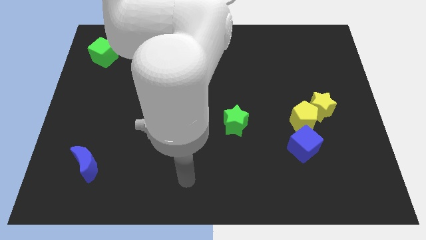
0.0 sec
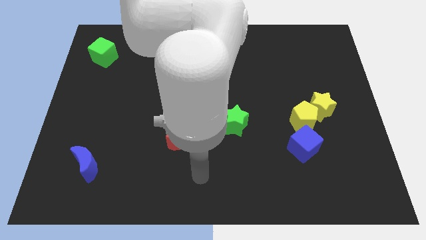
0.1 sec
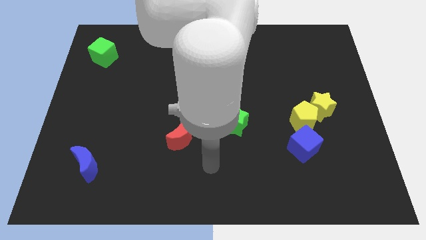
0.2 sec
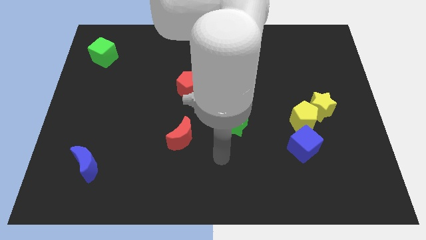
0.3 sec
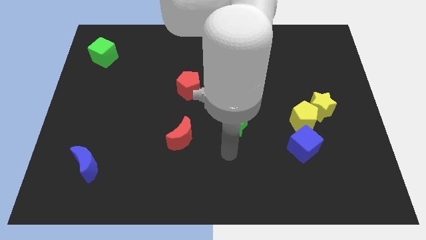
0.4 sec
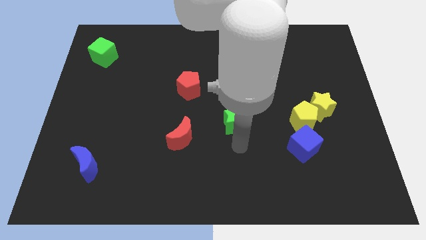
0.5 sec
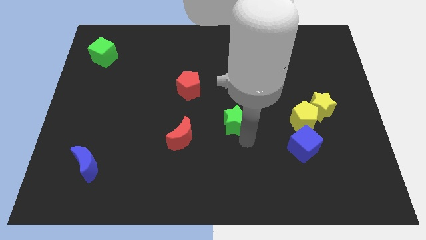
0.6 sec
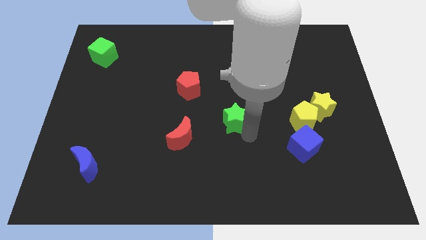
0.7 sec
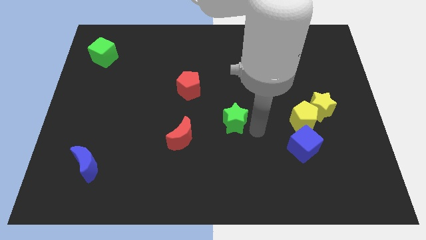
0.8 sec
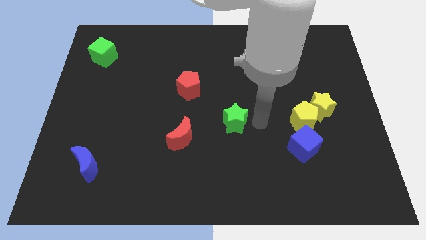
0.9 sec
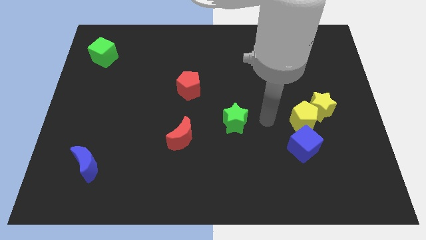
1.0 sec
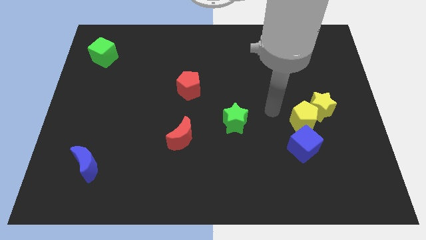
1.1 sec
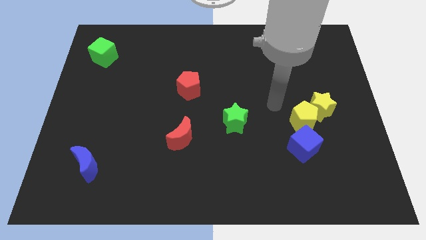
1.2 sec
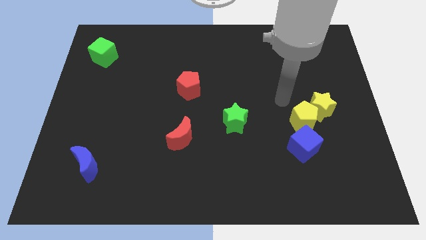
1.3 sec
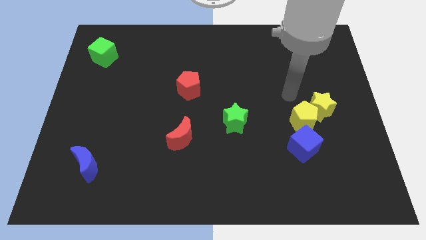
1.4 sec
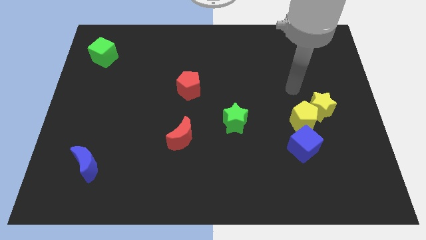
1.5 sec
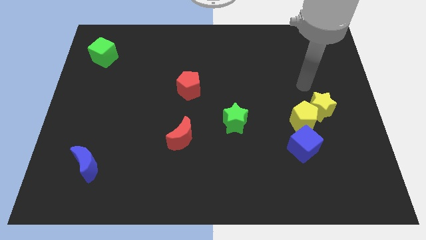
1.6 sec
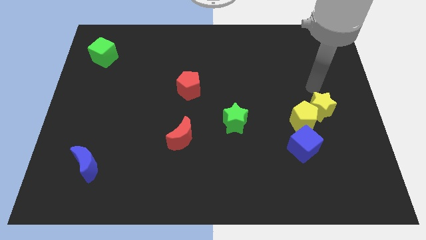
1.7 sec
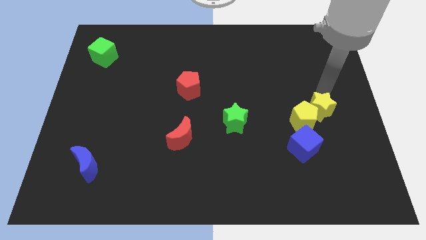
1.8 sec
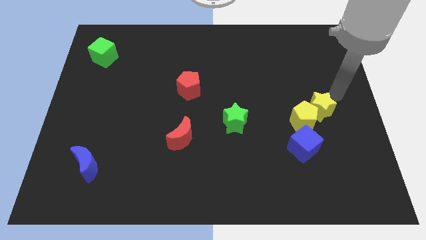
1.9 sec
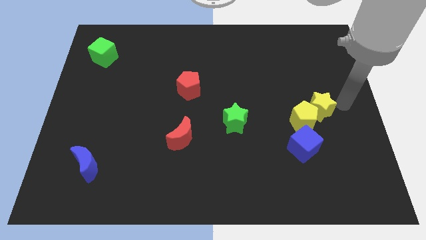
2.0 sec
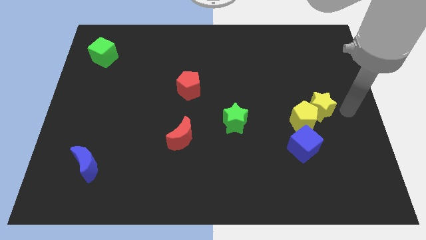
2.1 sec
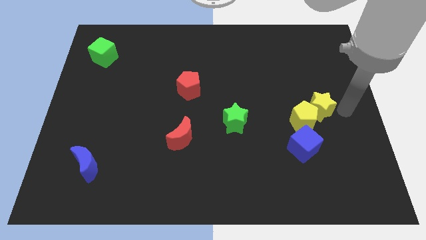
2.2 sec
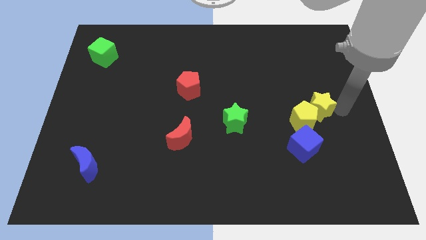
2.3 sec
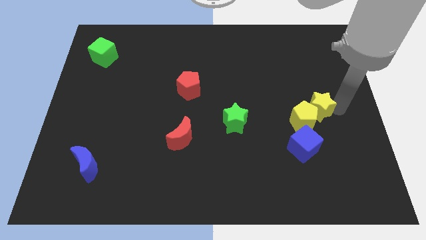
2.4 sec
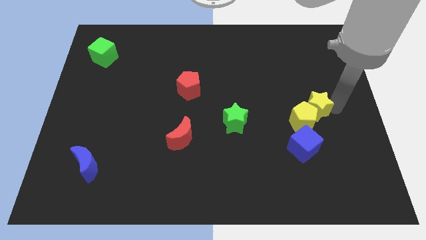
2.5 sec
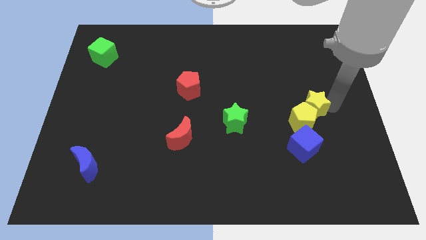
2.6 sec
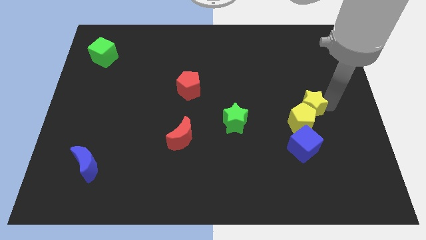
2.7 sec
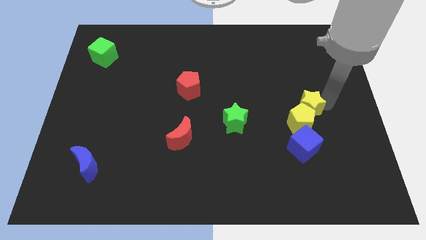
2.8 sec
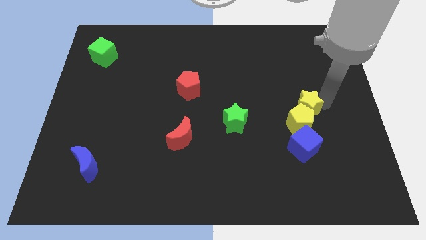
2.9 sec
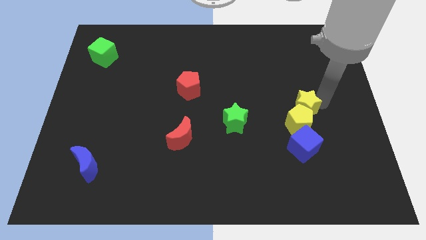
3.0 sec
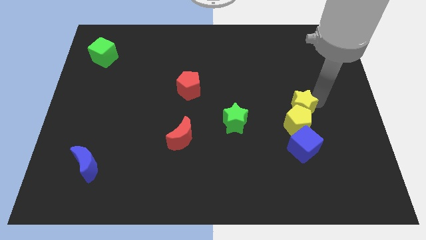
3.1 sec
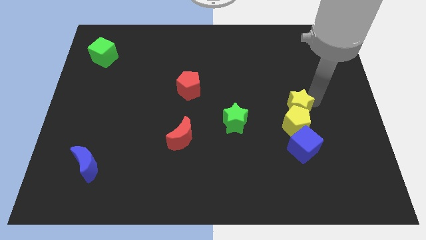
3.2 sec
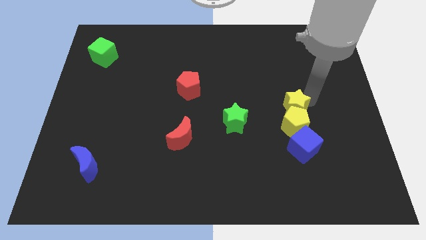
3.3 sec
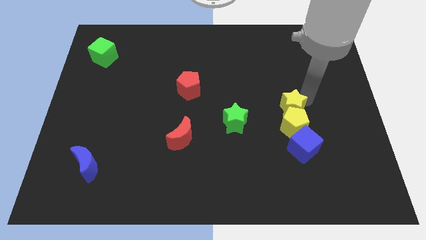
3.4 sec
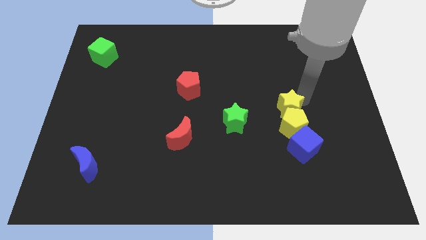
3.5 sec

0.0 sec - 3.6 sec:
slightly slide the yellow star left

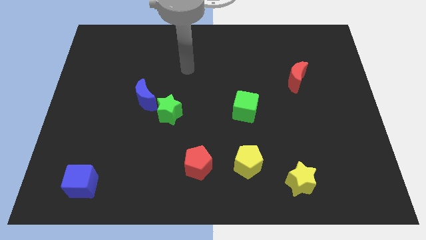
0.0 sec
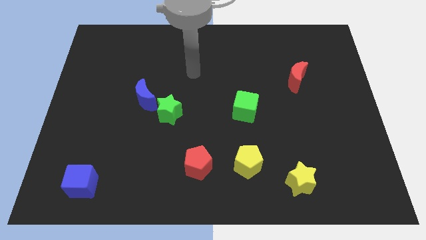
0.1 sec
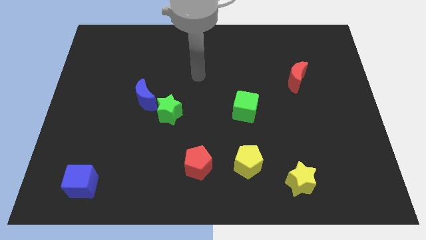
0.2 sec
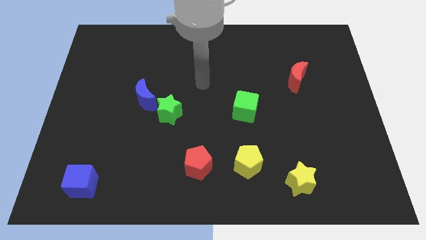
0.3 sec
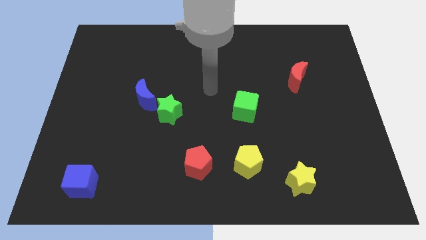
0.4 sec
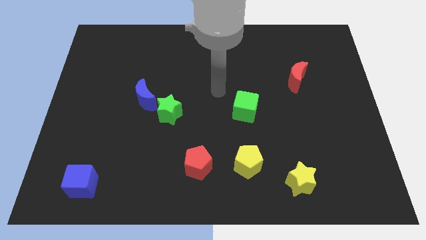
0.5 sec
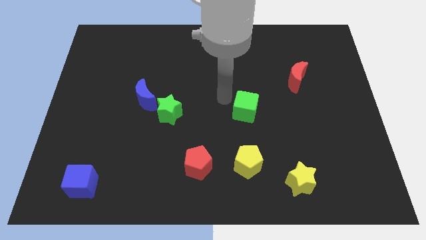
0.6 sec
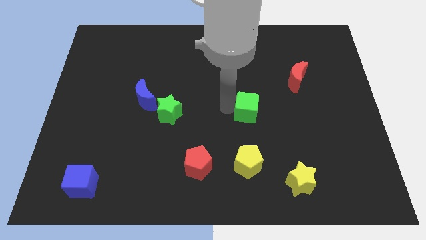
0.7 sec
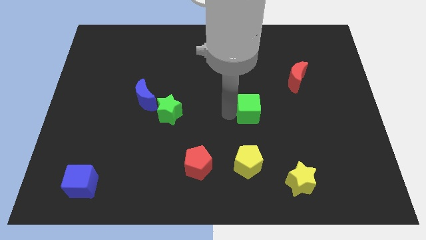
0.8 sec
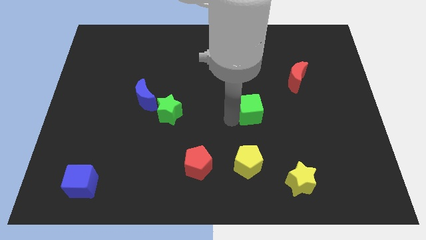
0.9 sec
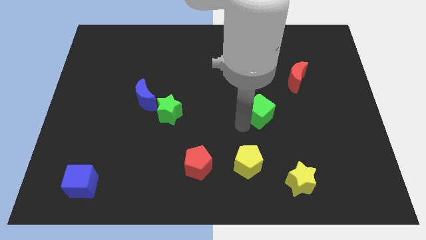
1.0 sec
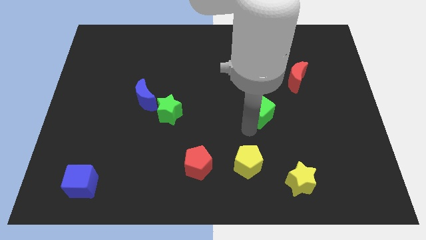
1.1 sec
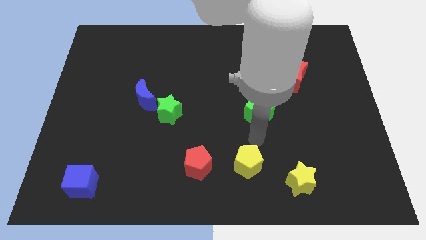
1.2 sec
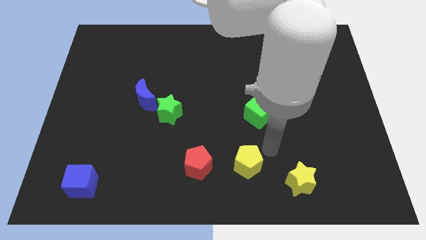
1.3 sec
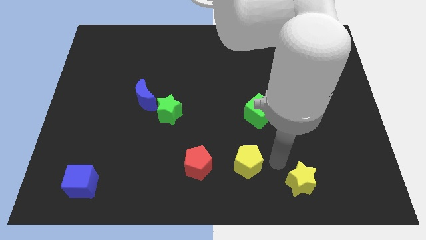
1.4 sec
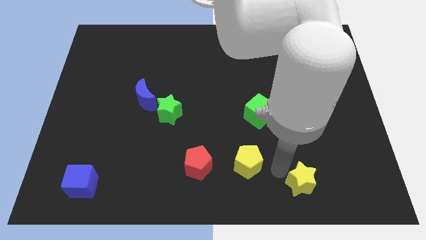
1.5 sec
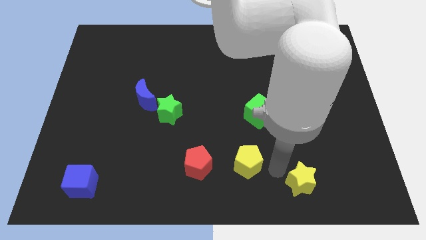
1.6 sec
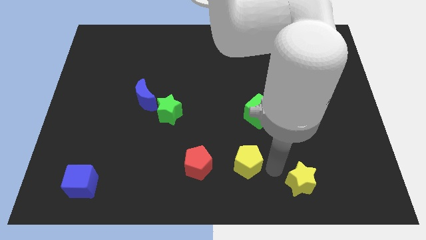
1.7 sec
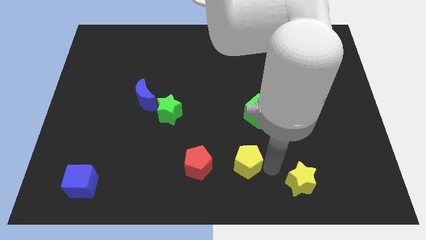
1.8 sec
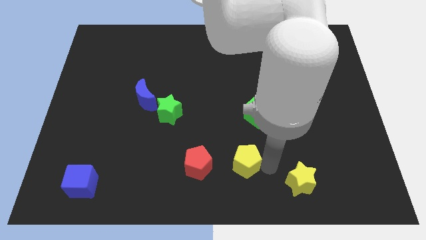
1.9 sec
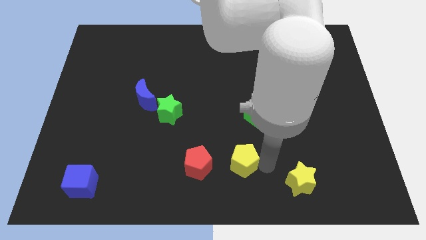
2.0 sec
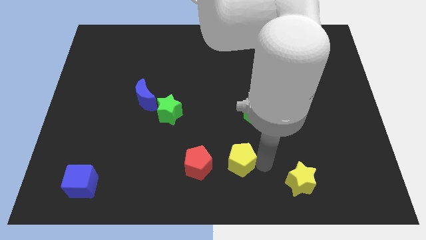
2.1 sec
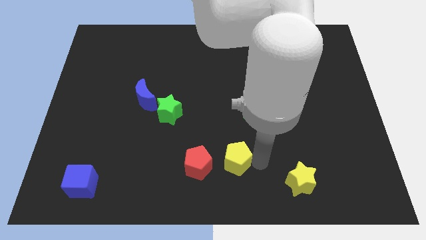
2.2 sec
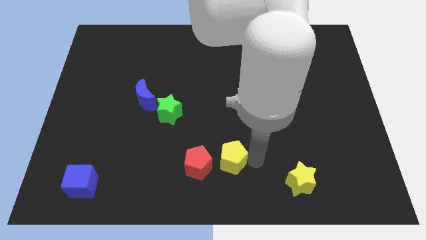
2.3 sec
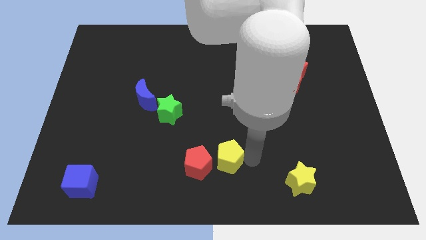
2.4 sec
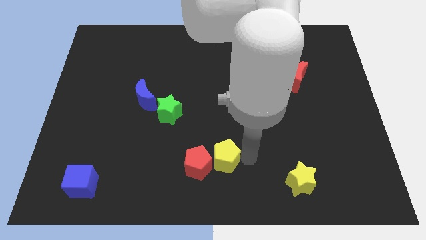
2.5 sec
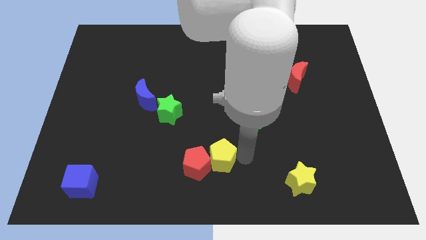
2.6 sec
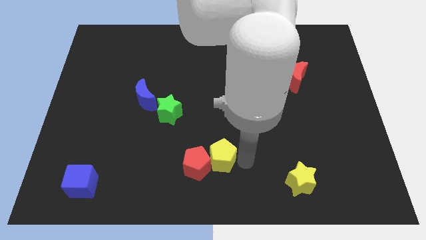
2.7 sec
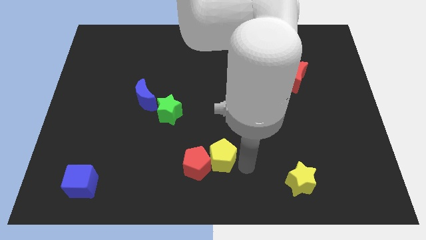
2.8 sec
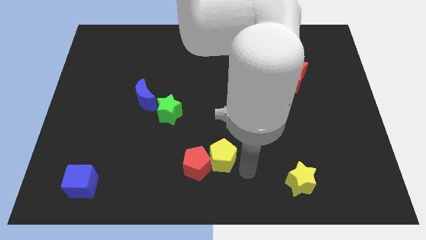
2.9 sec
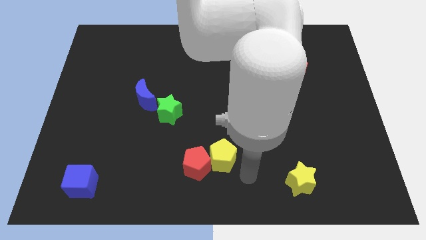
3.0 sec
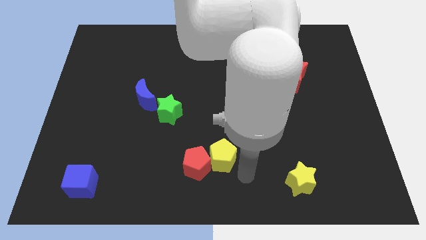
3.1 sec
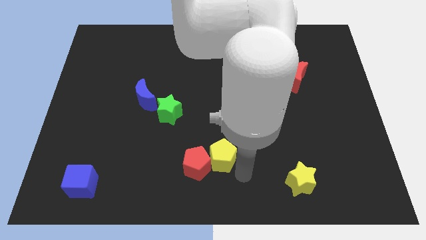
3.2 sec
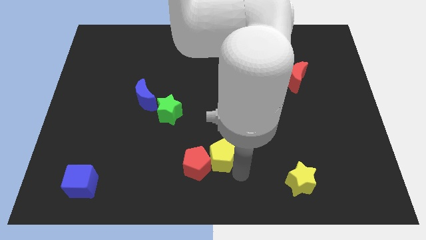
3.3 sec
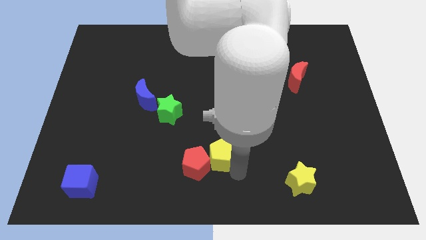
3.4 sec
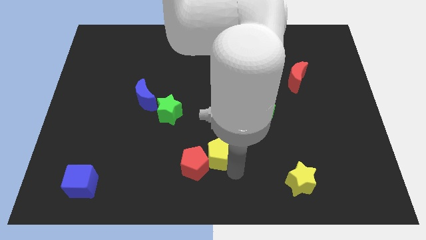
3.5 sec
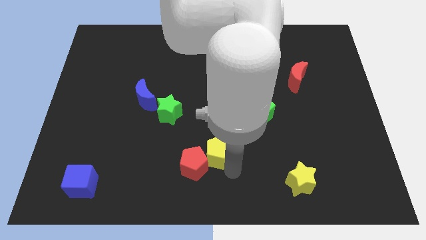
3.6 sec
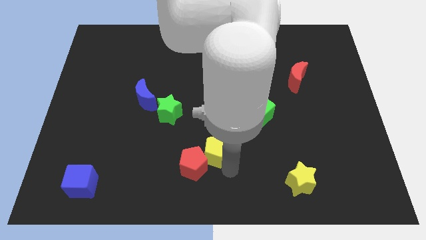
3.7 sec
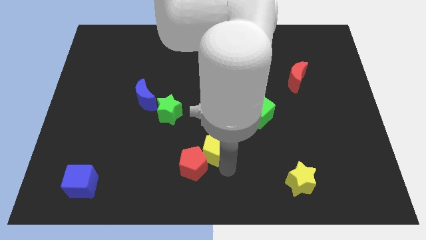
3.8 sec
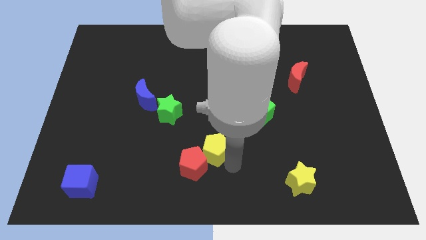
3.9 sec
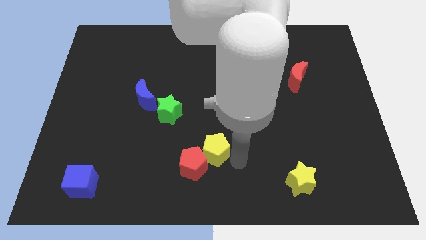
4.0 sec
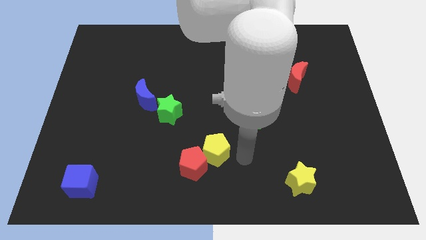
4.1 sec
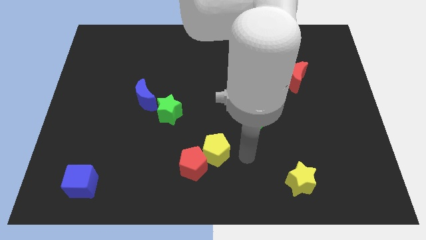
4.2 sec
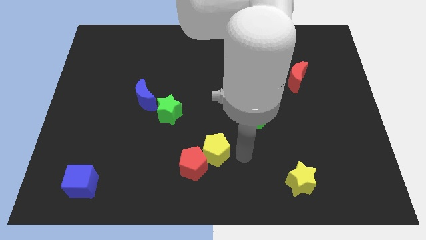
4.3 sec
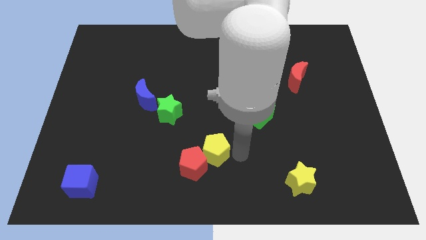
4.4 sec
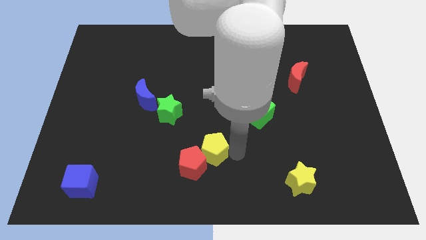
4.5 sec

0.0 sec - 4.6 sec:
slightly push the yellow pentagon to the left
